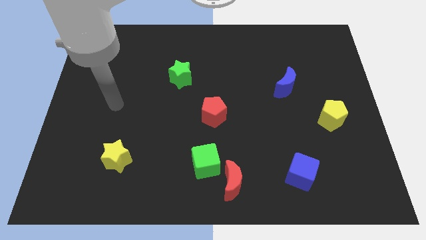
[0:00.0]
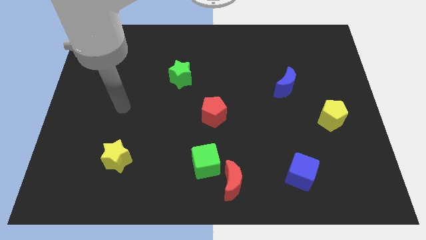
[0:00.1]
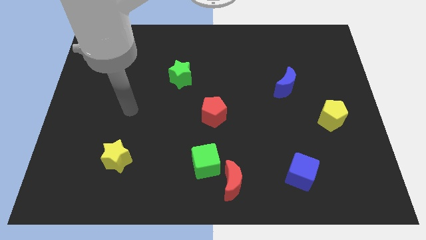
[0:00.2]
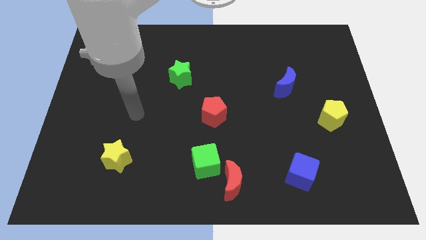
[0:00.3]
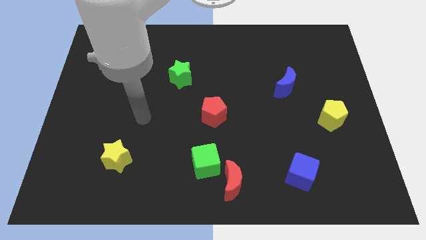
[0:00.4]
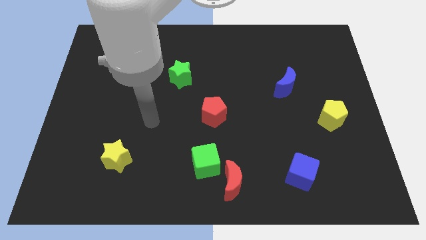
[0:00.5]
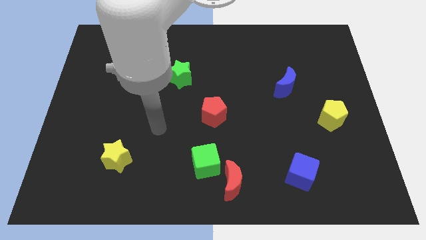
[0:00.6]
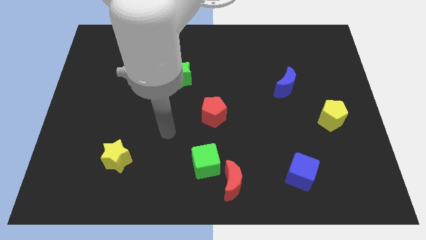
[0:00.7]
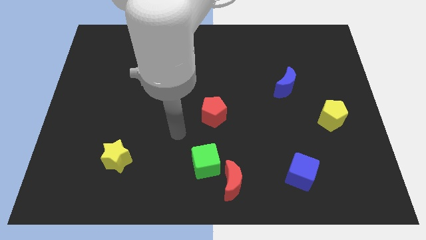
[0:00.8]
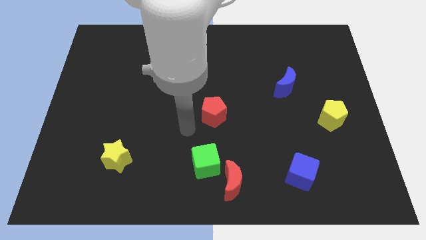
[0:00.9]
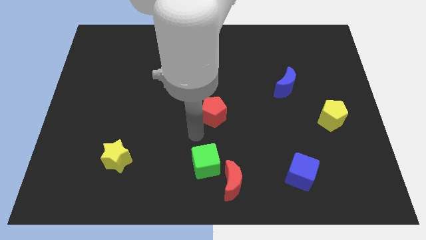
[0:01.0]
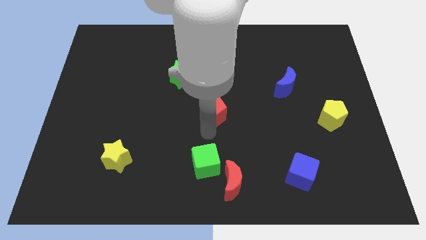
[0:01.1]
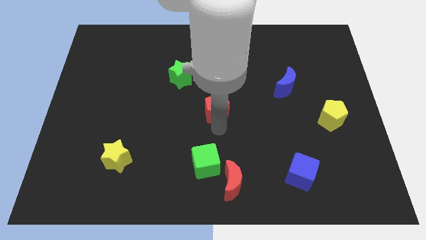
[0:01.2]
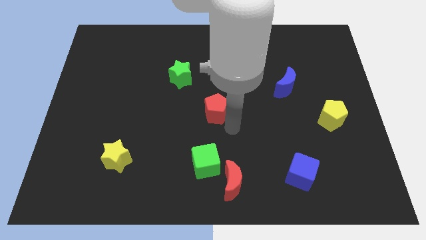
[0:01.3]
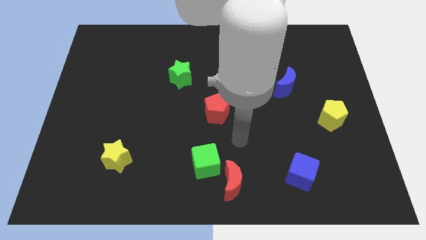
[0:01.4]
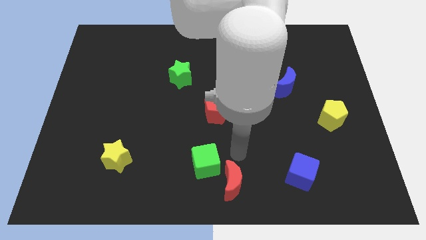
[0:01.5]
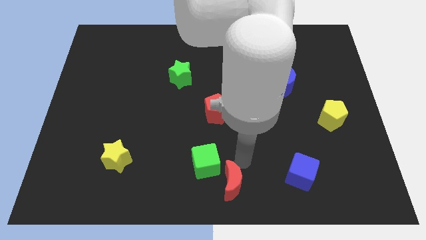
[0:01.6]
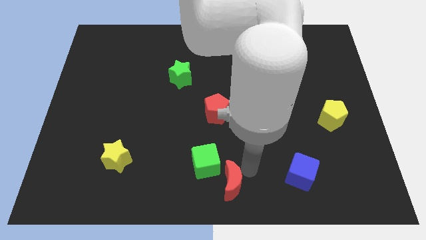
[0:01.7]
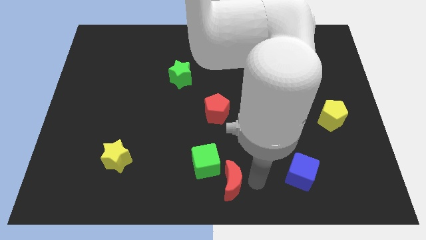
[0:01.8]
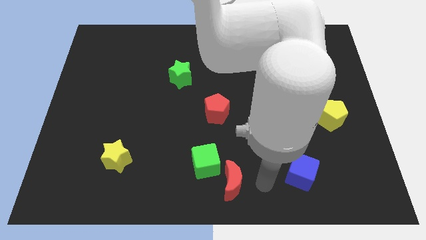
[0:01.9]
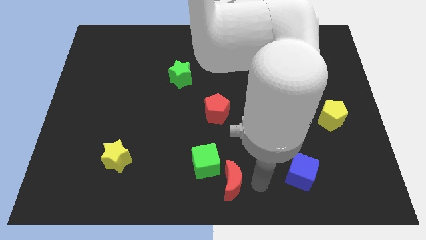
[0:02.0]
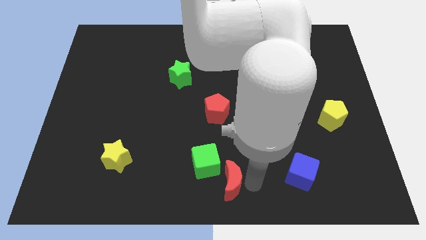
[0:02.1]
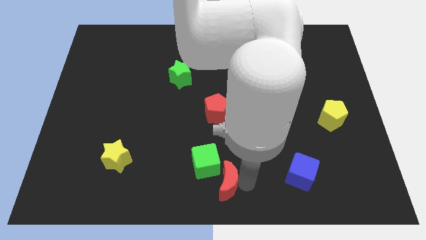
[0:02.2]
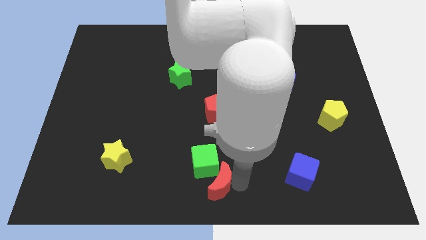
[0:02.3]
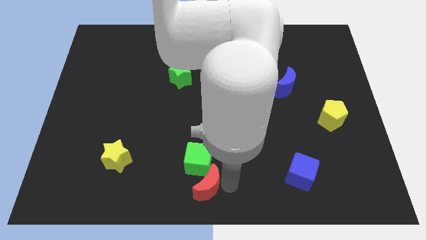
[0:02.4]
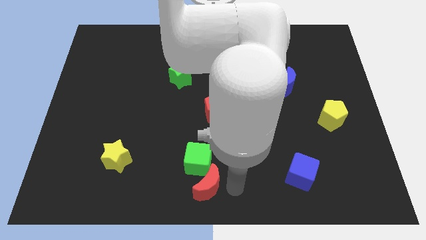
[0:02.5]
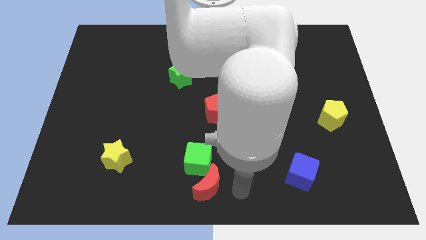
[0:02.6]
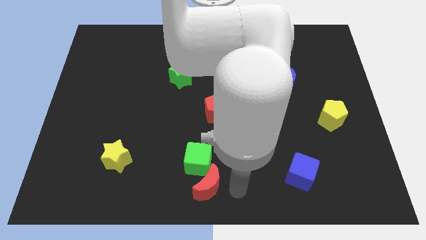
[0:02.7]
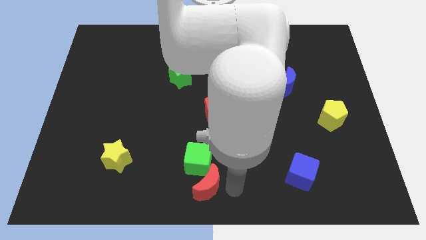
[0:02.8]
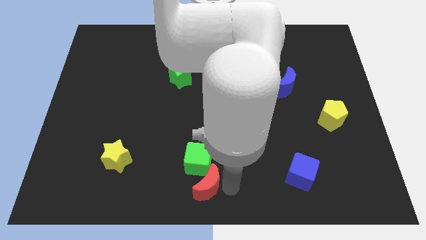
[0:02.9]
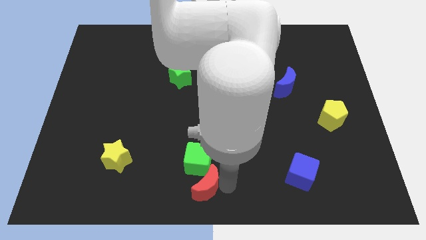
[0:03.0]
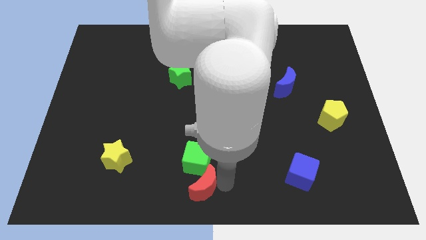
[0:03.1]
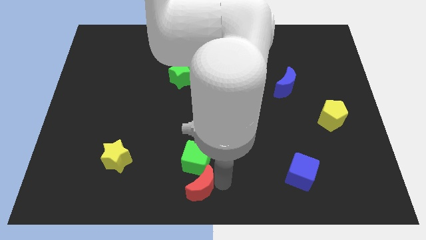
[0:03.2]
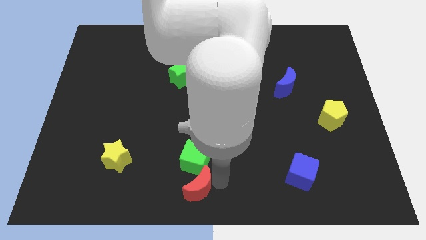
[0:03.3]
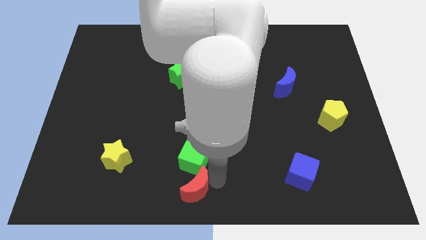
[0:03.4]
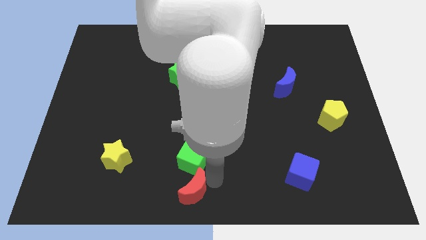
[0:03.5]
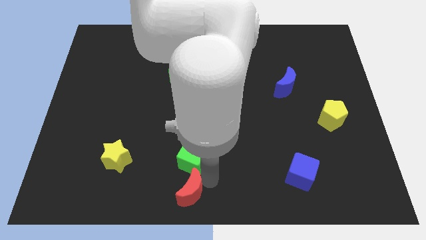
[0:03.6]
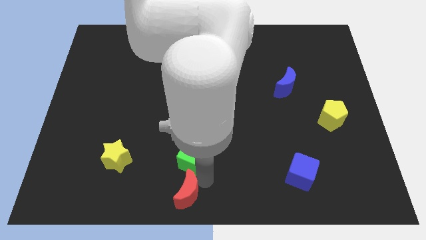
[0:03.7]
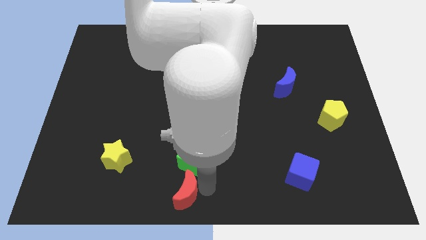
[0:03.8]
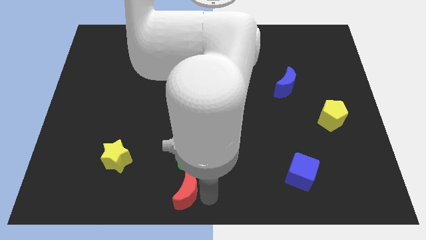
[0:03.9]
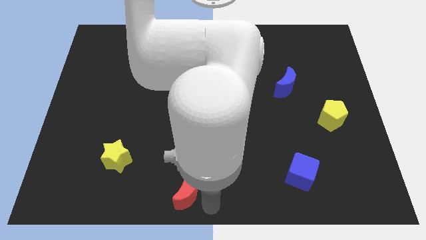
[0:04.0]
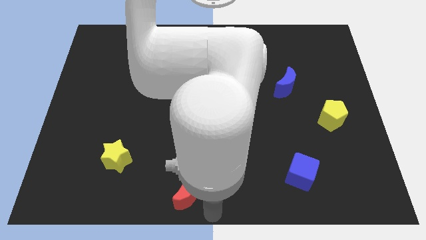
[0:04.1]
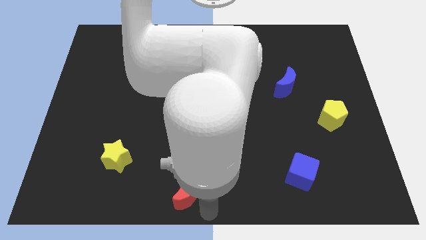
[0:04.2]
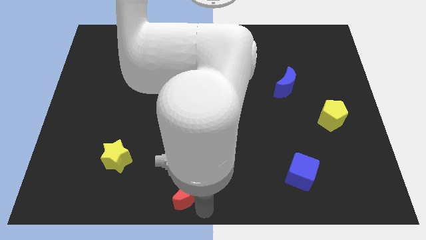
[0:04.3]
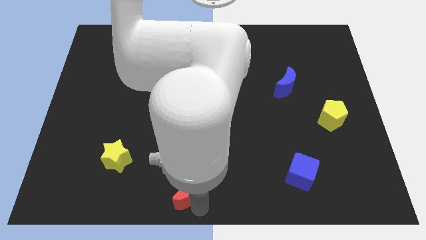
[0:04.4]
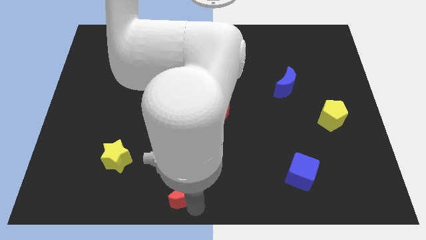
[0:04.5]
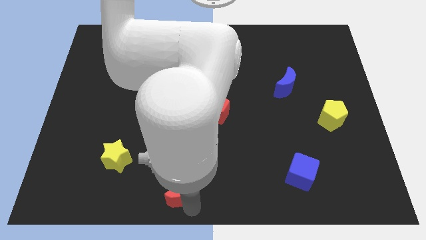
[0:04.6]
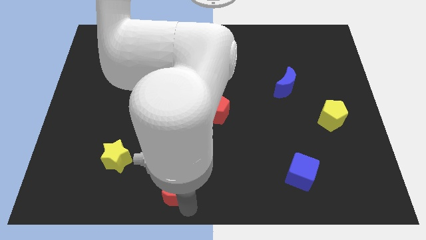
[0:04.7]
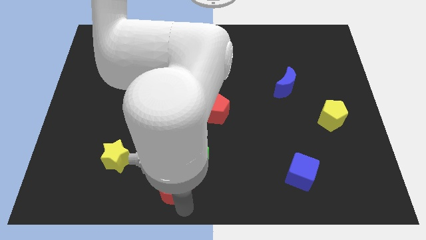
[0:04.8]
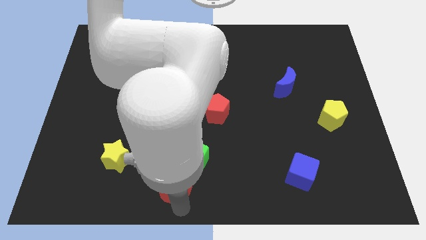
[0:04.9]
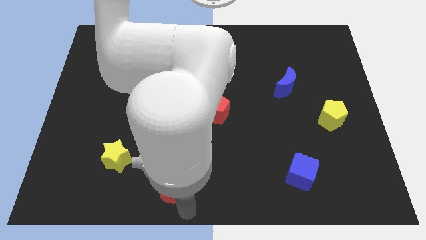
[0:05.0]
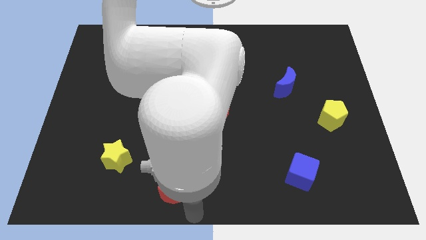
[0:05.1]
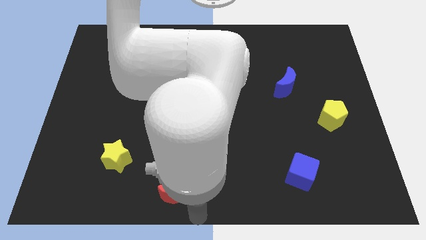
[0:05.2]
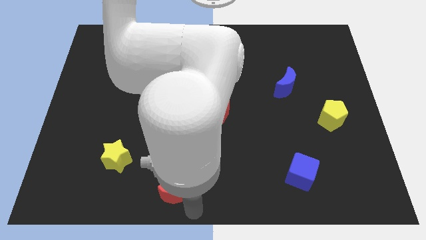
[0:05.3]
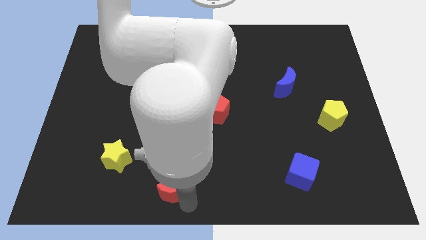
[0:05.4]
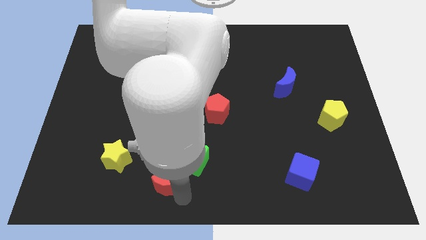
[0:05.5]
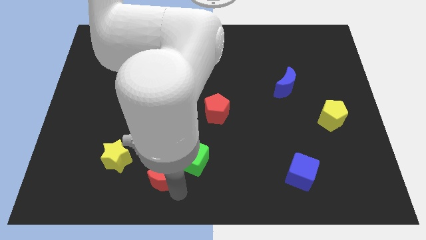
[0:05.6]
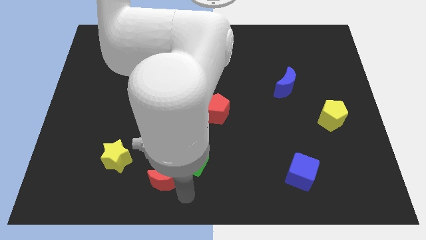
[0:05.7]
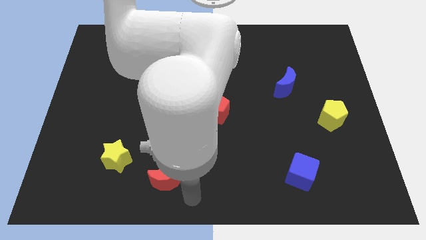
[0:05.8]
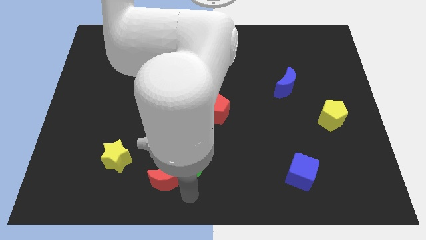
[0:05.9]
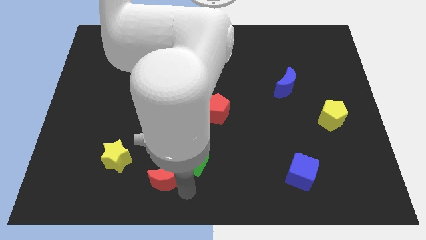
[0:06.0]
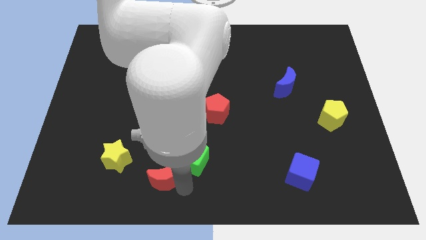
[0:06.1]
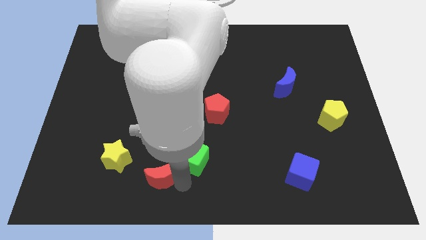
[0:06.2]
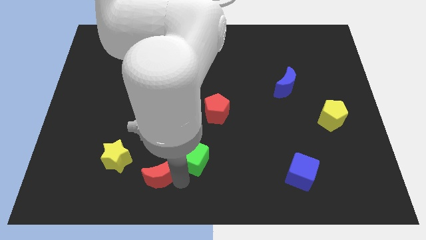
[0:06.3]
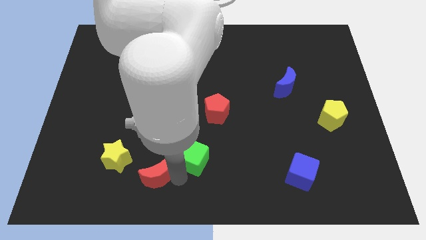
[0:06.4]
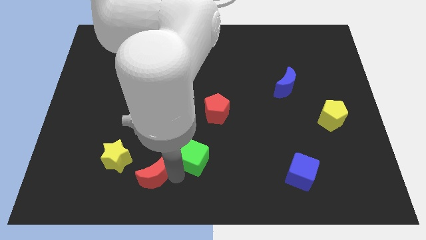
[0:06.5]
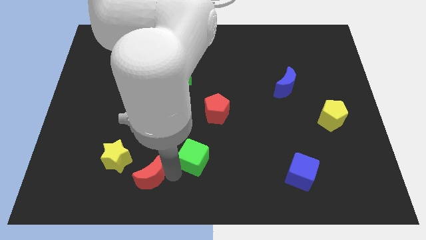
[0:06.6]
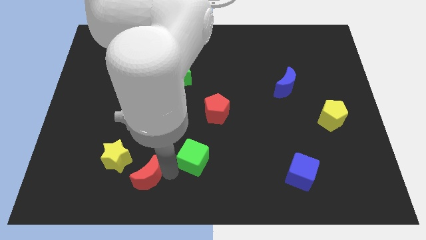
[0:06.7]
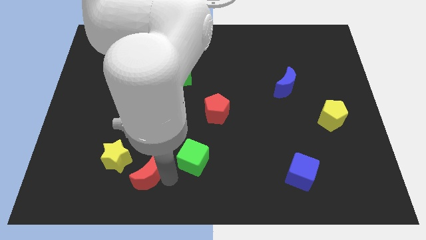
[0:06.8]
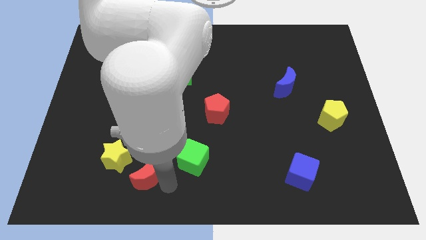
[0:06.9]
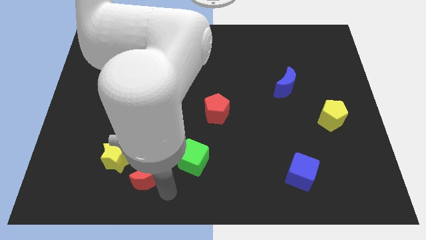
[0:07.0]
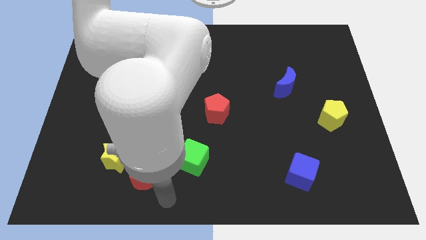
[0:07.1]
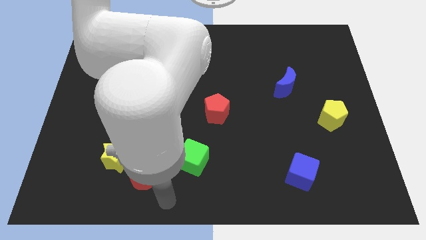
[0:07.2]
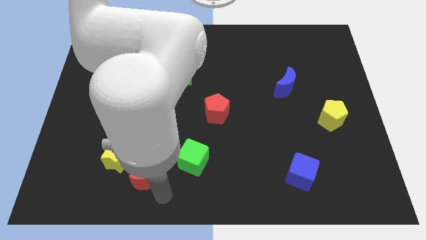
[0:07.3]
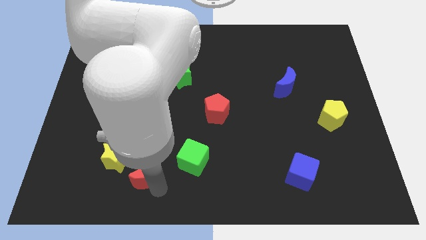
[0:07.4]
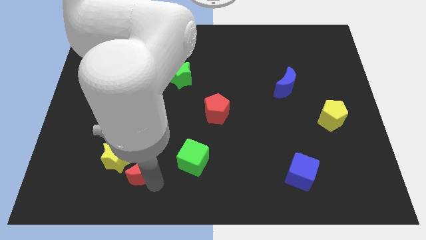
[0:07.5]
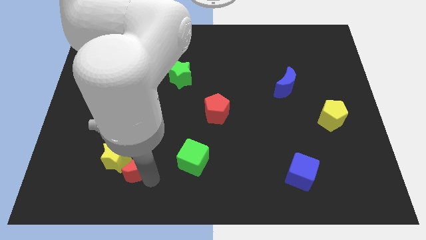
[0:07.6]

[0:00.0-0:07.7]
put the red moon towards the yellow star

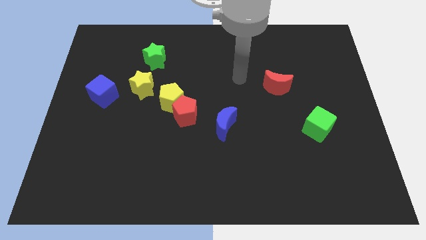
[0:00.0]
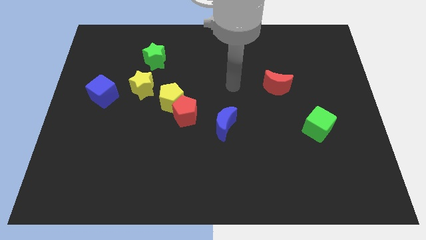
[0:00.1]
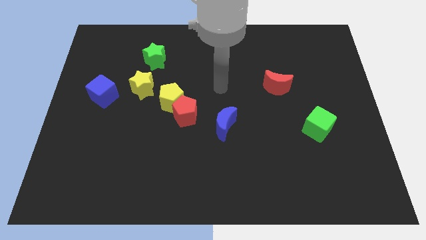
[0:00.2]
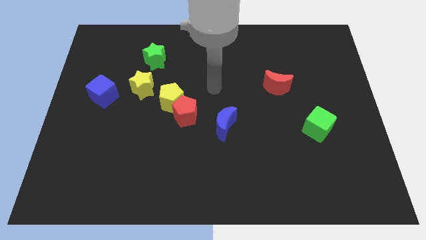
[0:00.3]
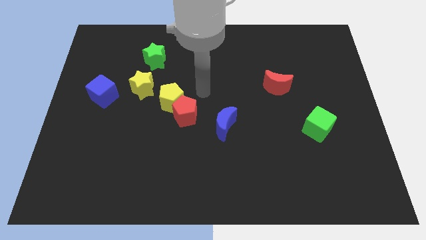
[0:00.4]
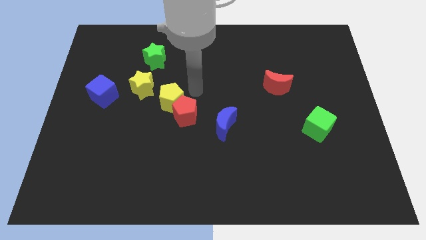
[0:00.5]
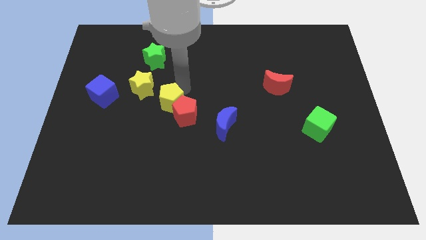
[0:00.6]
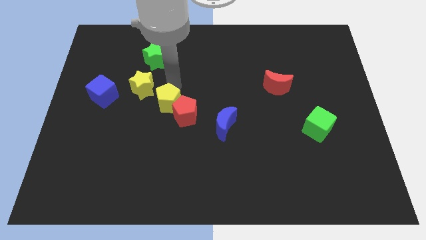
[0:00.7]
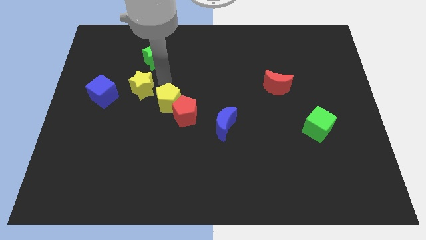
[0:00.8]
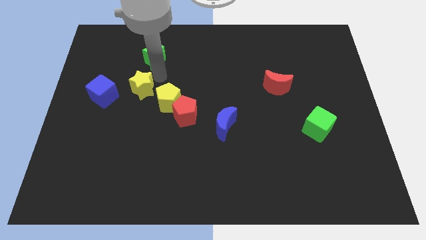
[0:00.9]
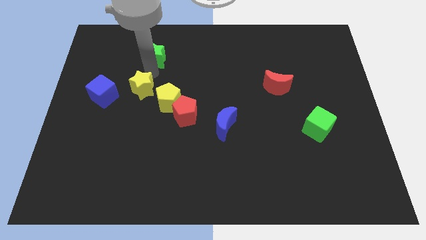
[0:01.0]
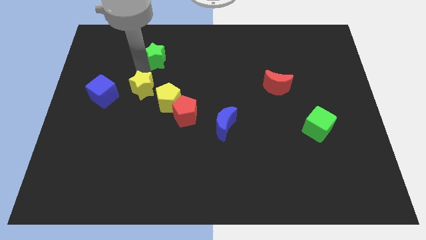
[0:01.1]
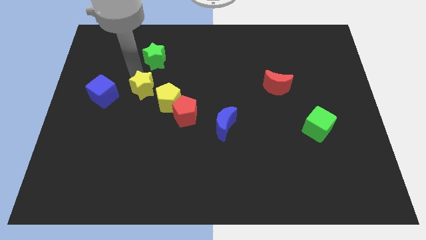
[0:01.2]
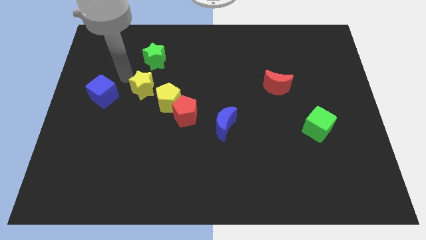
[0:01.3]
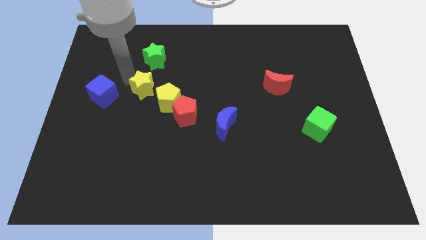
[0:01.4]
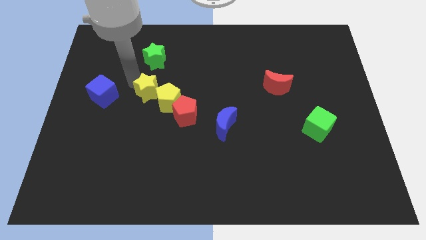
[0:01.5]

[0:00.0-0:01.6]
push the yellow star next to the yellow pentagon
